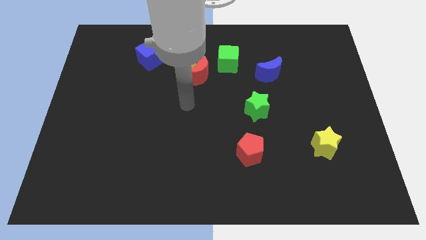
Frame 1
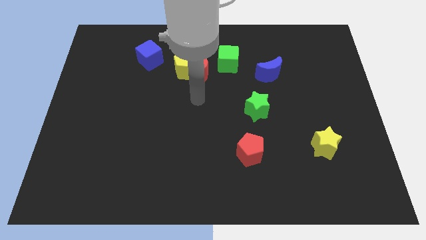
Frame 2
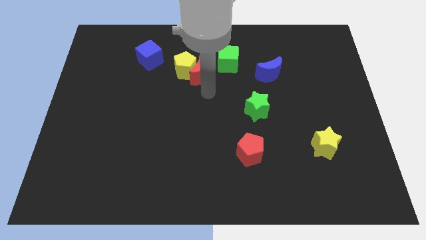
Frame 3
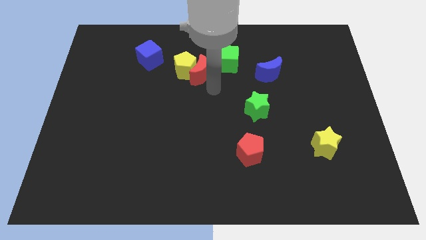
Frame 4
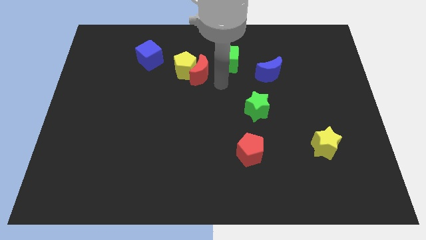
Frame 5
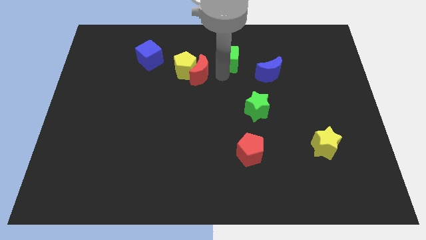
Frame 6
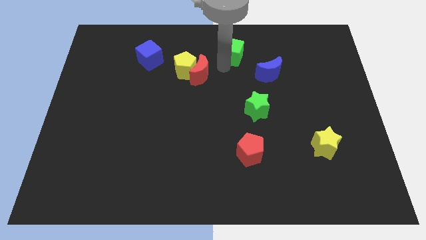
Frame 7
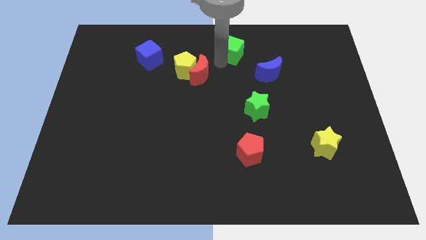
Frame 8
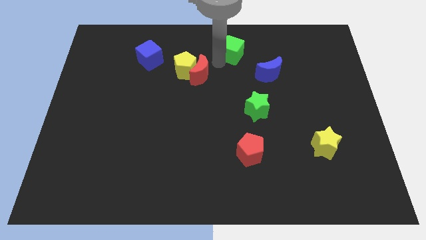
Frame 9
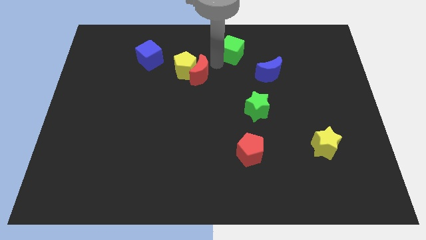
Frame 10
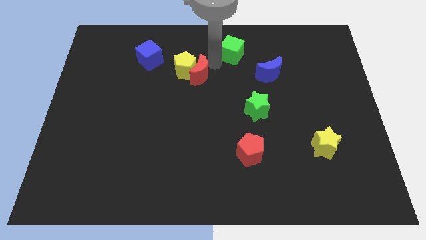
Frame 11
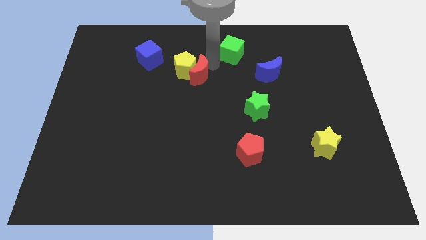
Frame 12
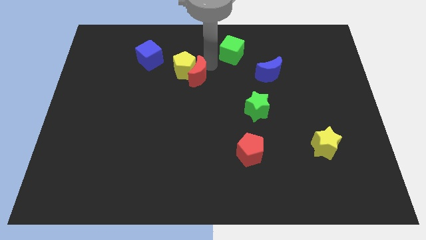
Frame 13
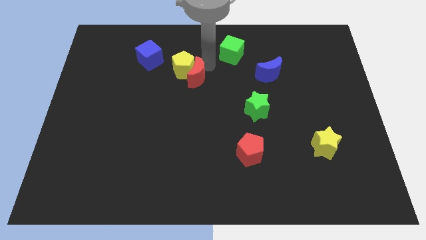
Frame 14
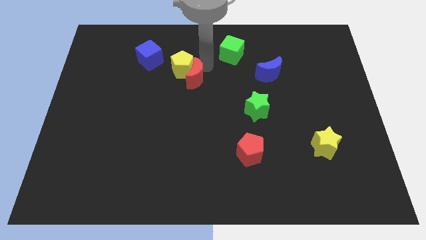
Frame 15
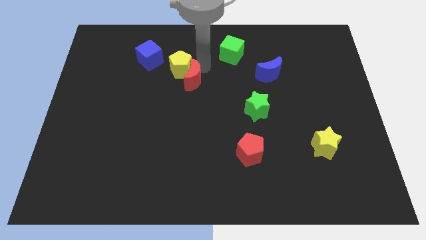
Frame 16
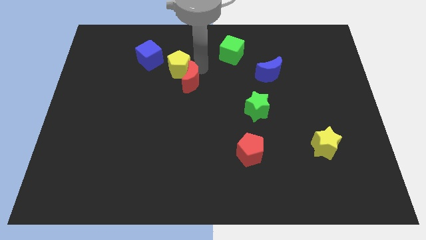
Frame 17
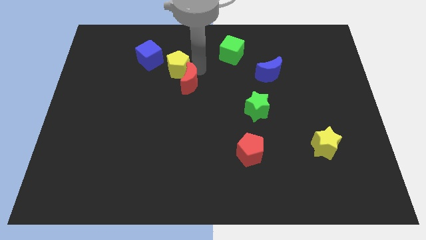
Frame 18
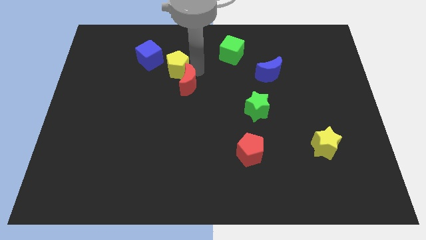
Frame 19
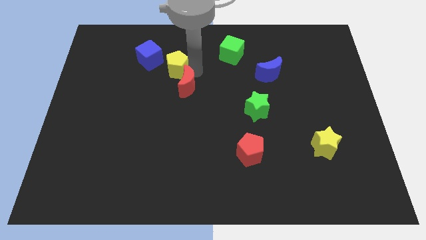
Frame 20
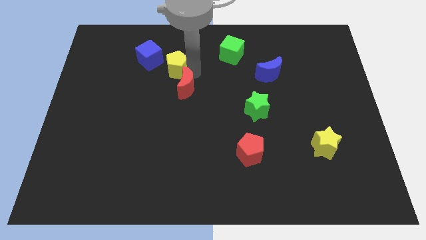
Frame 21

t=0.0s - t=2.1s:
pull the red moon apart from the yellow pentagon and green cube

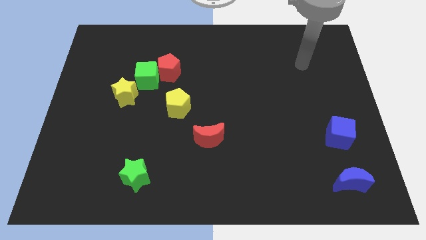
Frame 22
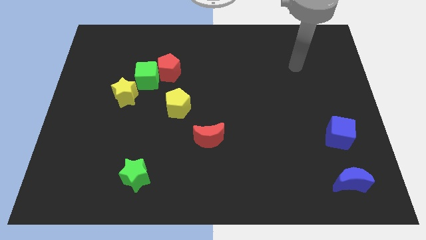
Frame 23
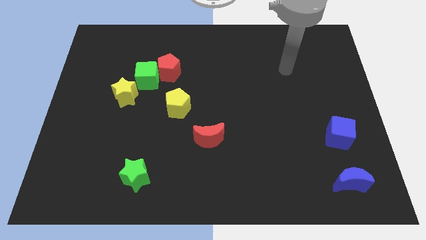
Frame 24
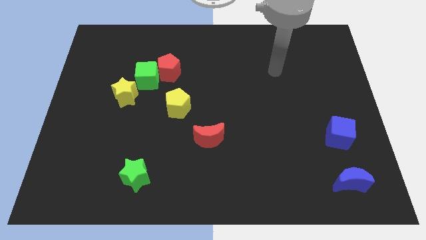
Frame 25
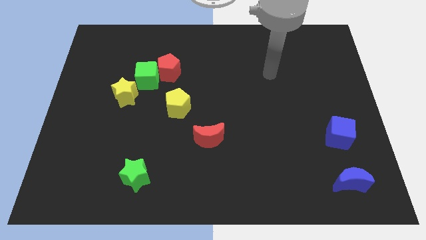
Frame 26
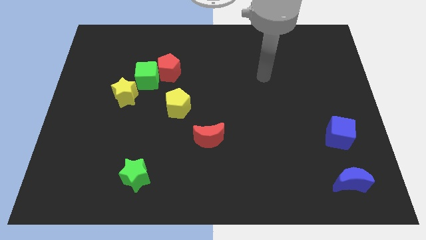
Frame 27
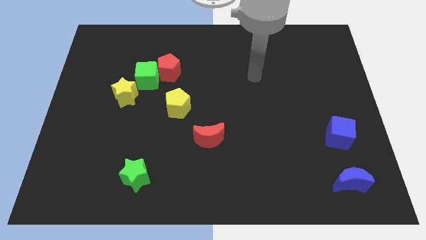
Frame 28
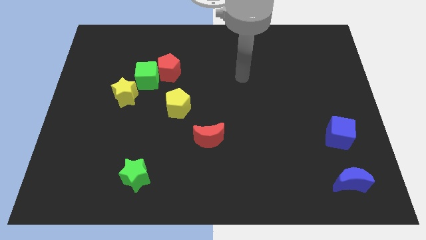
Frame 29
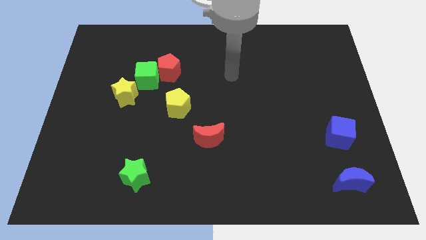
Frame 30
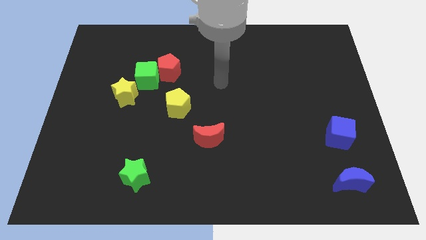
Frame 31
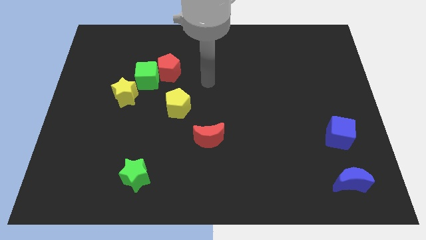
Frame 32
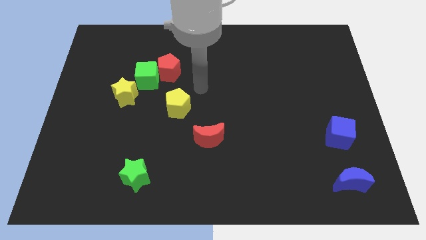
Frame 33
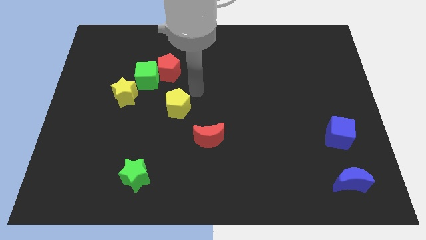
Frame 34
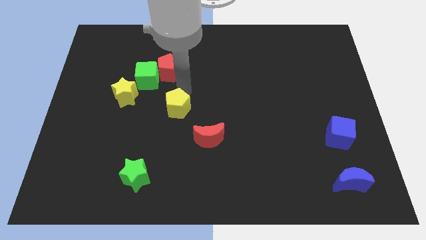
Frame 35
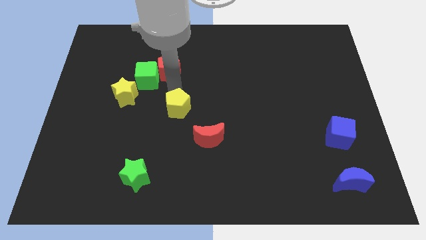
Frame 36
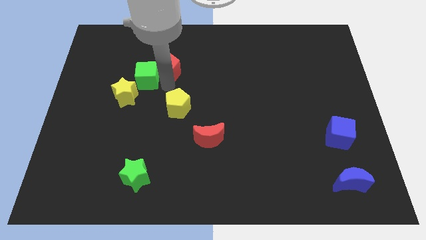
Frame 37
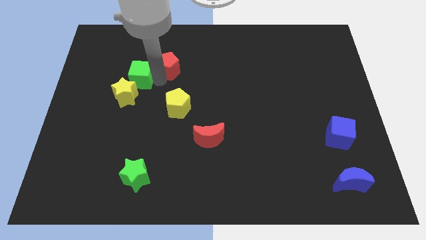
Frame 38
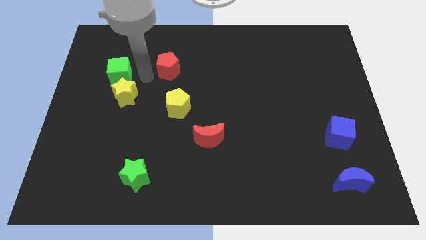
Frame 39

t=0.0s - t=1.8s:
move the red pentagon away from the green cube

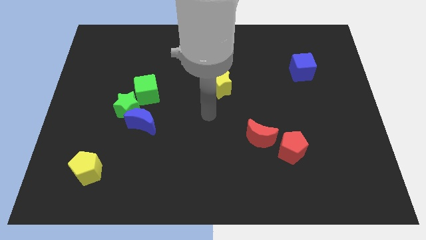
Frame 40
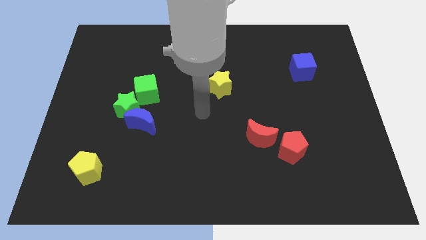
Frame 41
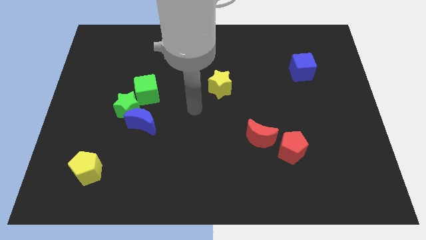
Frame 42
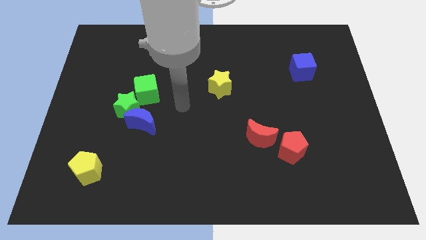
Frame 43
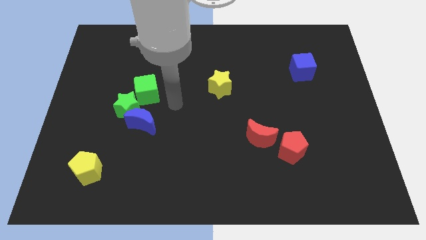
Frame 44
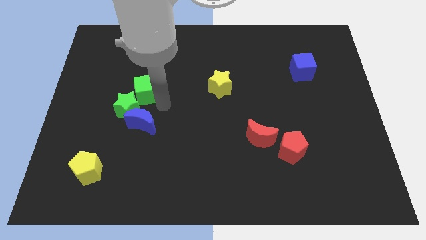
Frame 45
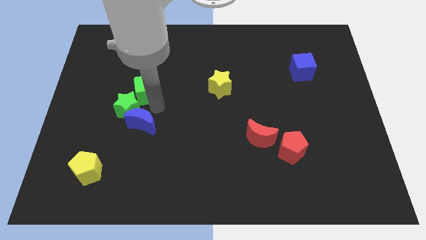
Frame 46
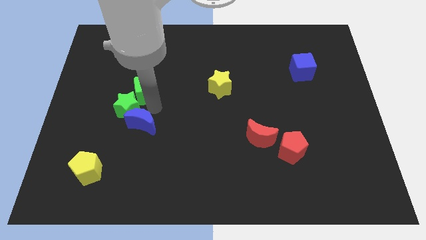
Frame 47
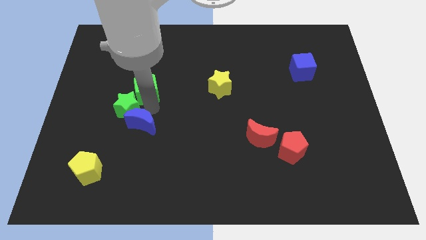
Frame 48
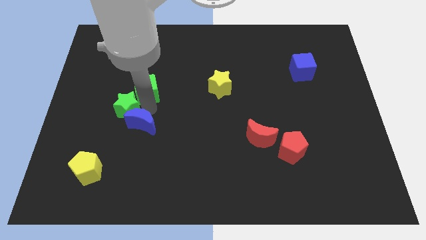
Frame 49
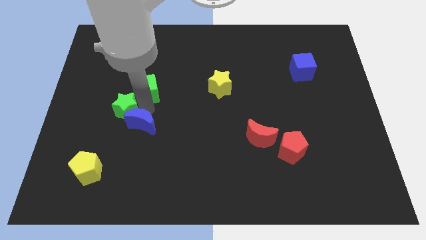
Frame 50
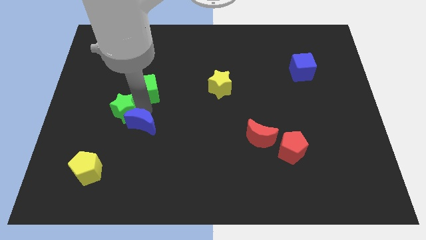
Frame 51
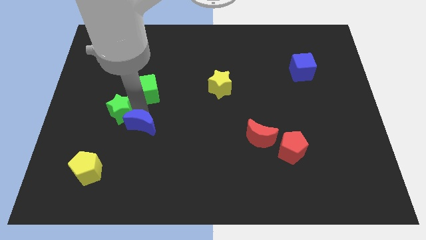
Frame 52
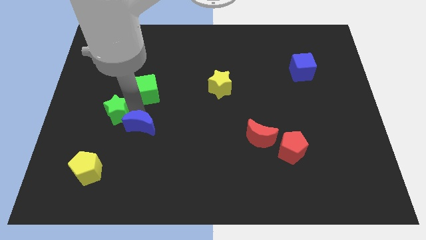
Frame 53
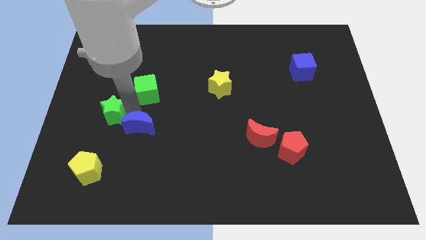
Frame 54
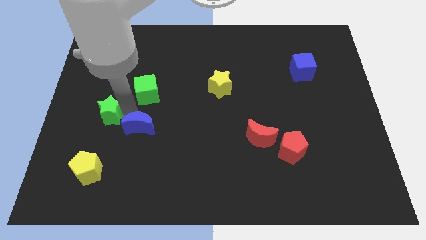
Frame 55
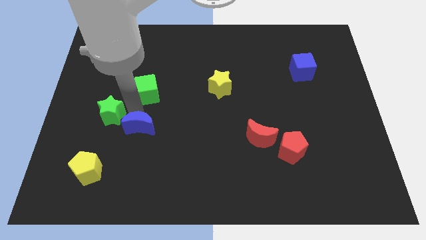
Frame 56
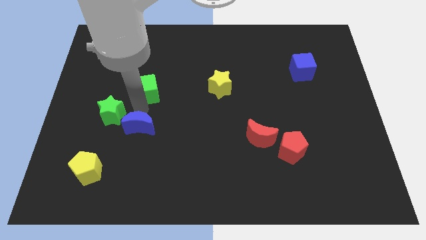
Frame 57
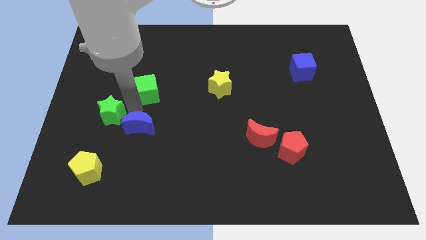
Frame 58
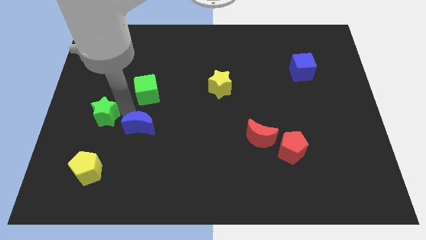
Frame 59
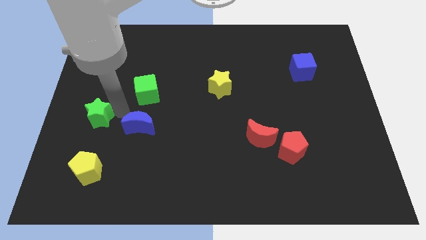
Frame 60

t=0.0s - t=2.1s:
pull the green star apart from the blue moon and green cube

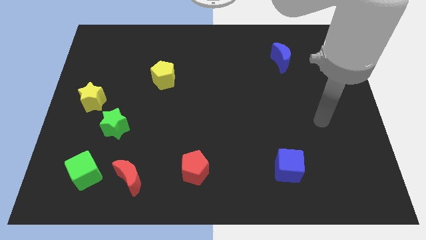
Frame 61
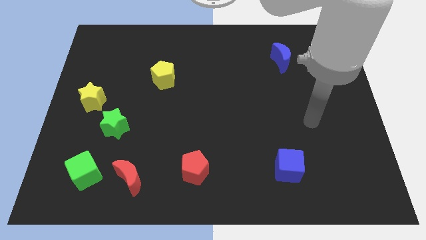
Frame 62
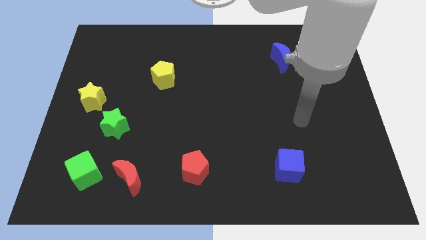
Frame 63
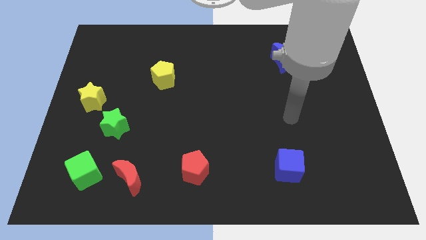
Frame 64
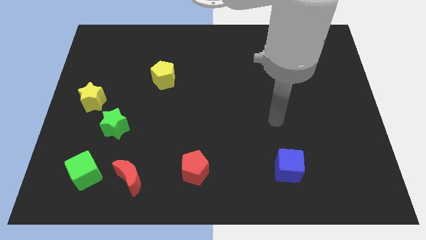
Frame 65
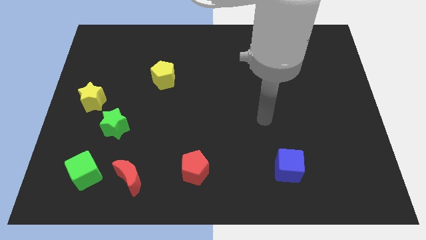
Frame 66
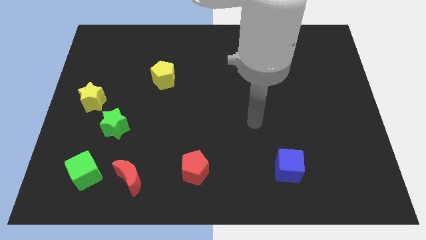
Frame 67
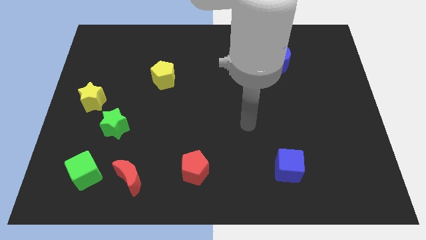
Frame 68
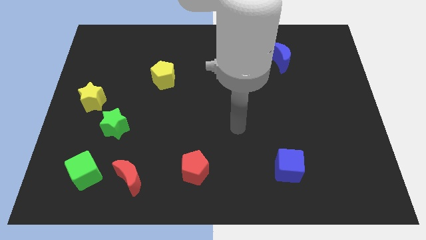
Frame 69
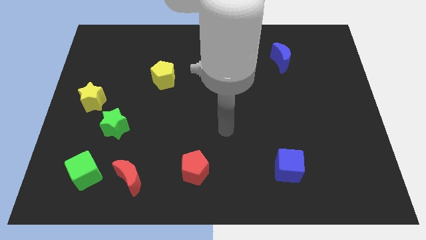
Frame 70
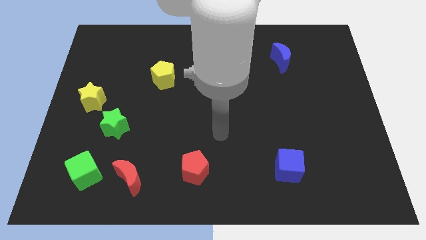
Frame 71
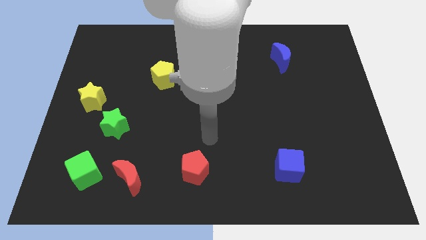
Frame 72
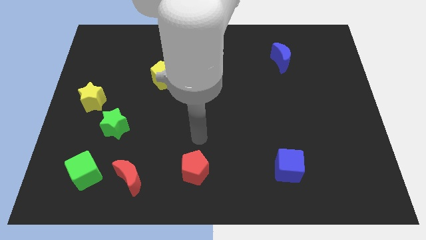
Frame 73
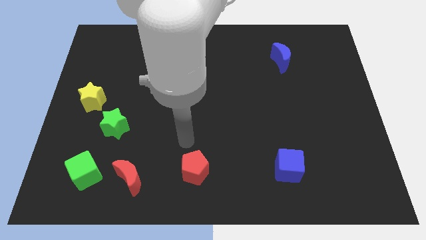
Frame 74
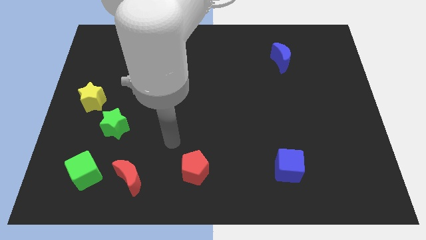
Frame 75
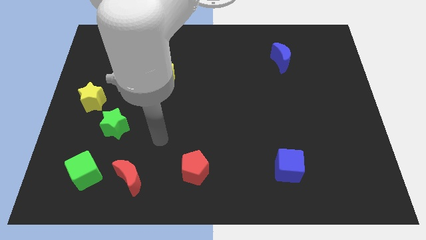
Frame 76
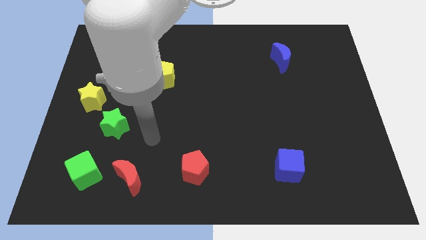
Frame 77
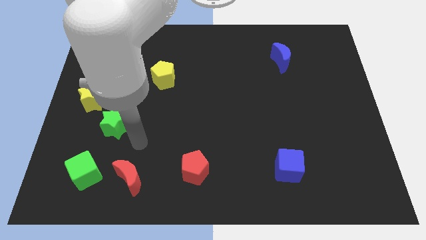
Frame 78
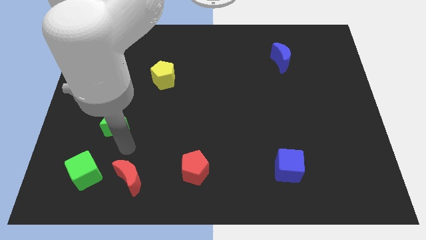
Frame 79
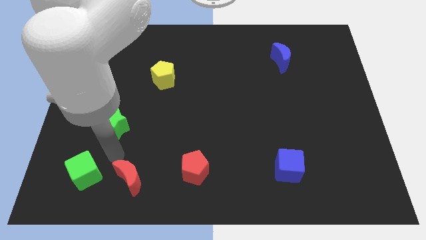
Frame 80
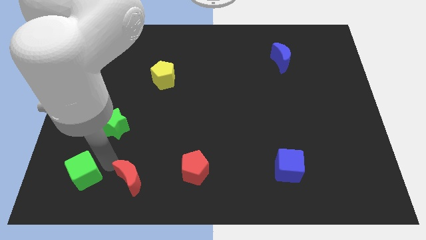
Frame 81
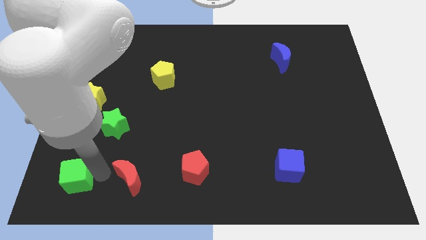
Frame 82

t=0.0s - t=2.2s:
move the red moon away from the green cube

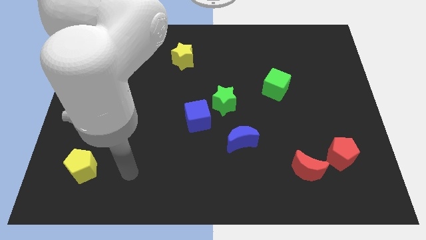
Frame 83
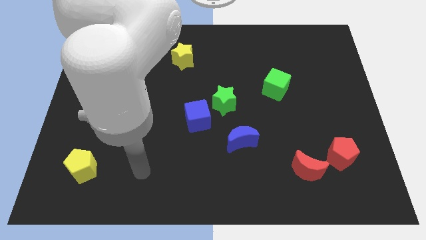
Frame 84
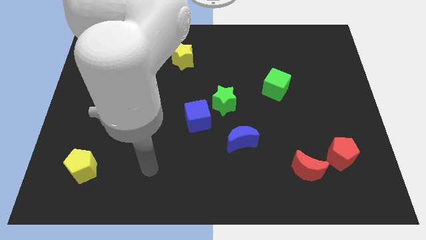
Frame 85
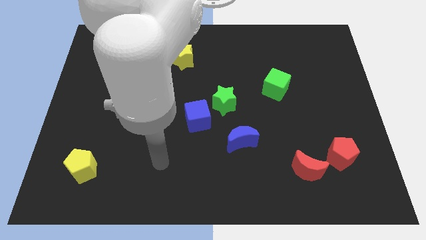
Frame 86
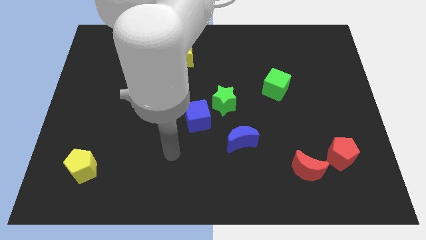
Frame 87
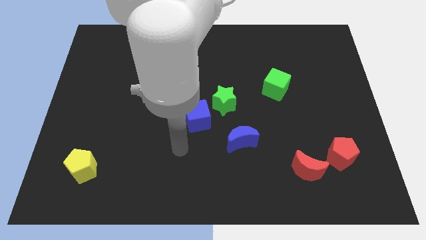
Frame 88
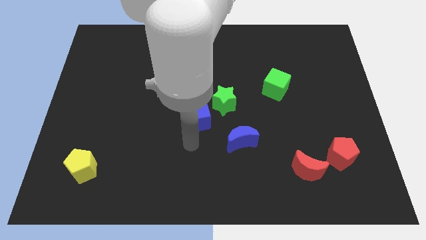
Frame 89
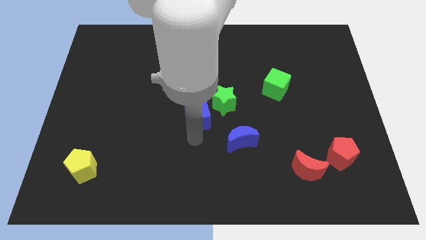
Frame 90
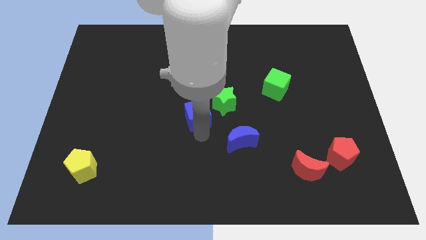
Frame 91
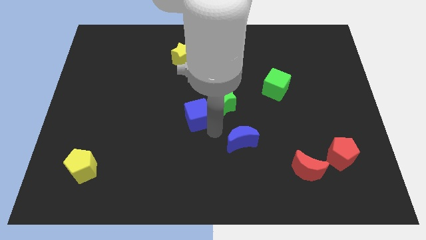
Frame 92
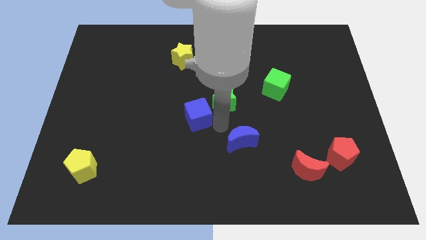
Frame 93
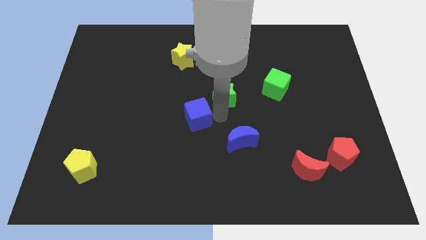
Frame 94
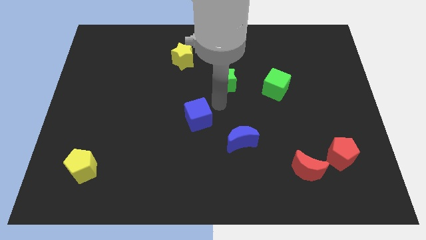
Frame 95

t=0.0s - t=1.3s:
move the blue cube away from the green star

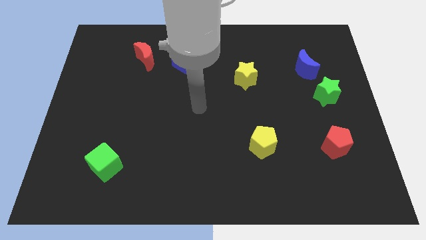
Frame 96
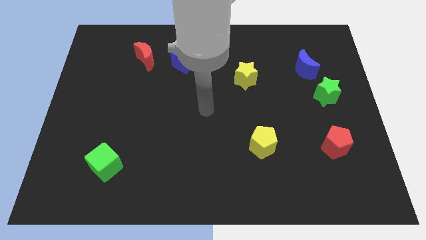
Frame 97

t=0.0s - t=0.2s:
separate the blue moon from the green star
